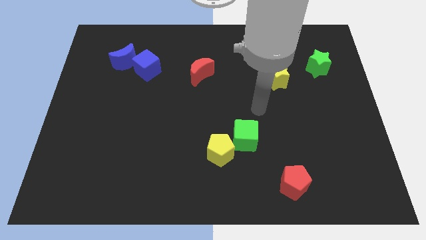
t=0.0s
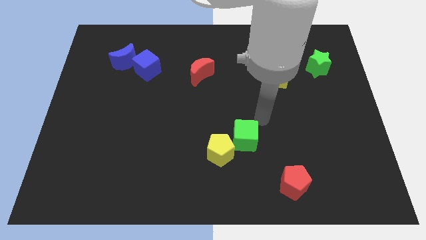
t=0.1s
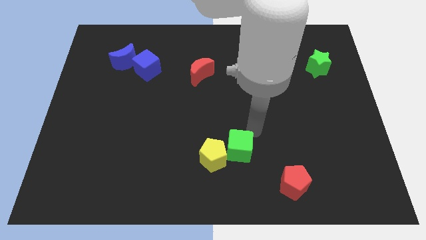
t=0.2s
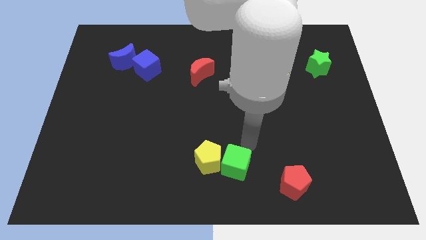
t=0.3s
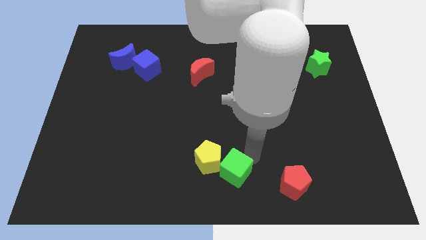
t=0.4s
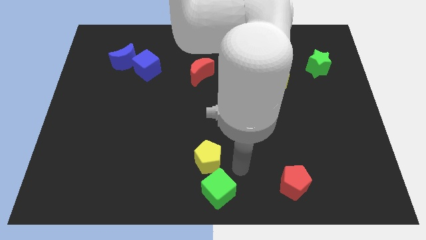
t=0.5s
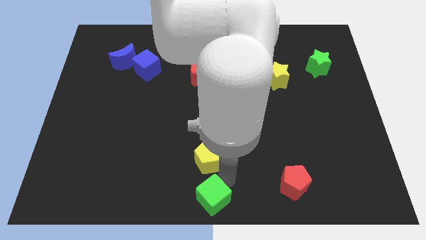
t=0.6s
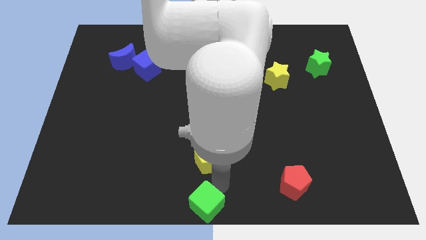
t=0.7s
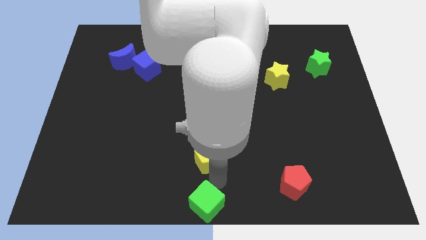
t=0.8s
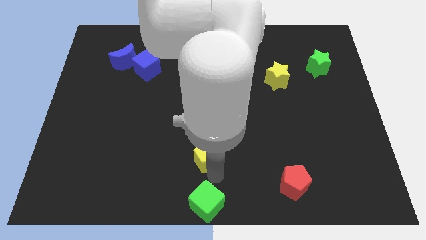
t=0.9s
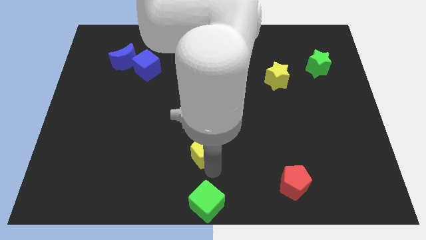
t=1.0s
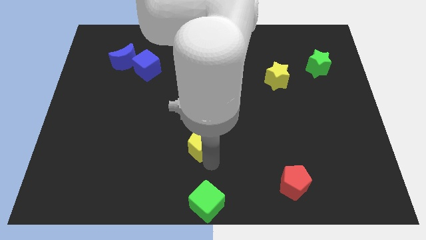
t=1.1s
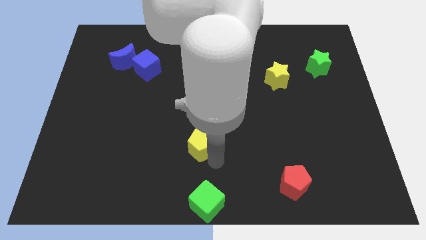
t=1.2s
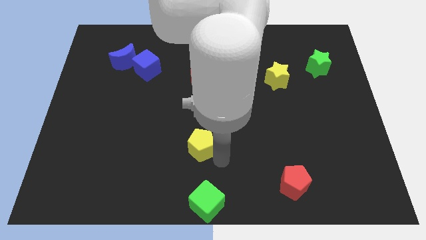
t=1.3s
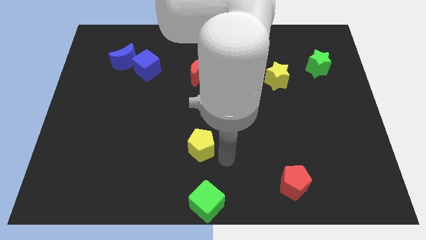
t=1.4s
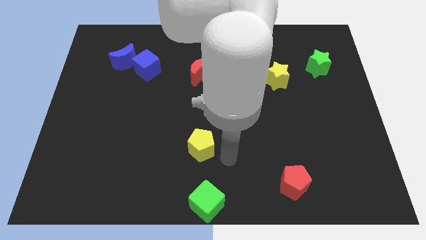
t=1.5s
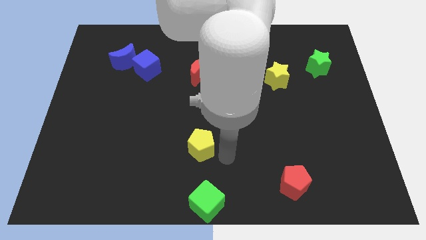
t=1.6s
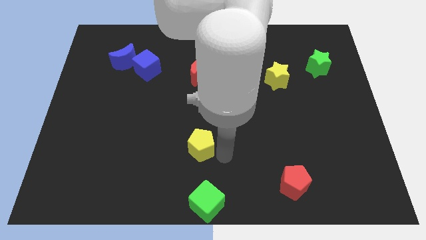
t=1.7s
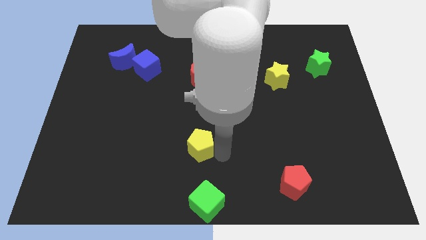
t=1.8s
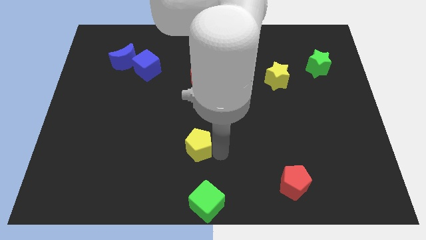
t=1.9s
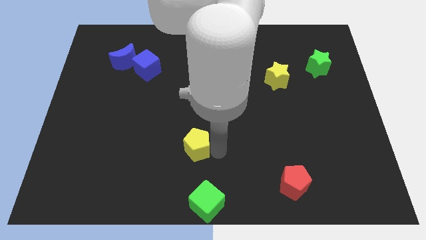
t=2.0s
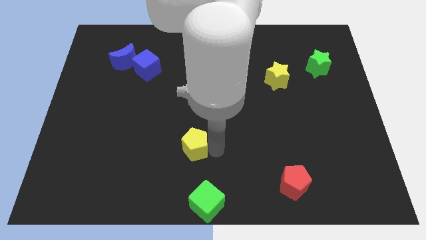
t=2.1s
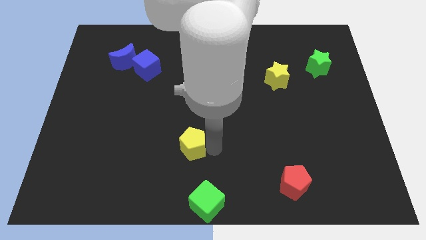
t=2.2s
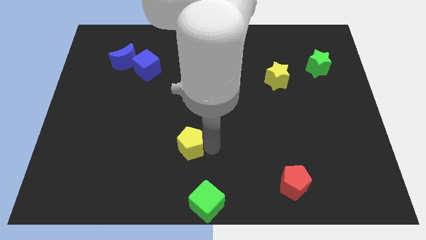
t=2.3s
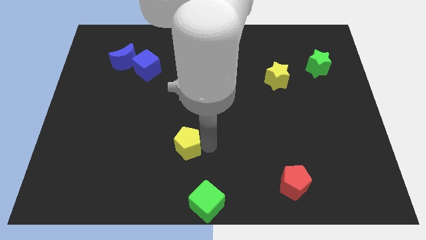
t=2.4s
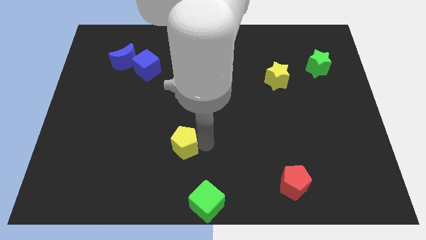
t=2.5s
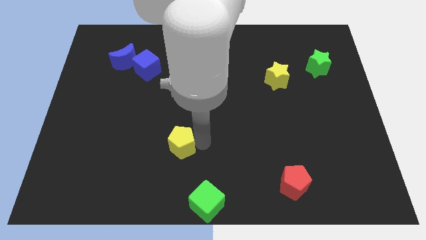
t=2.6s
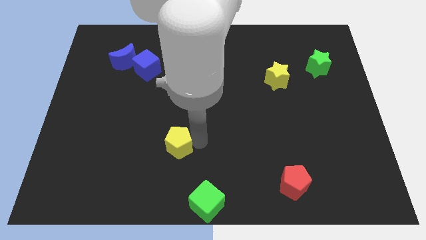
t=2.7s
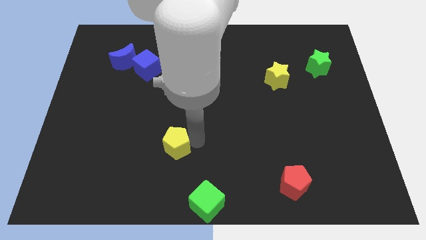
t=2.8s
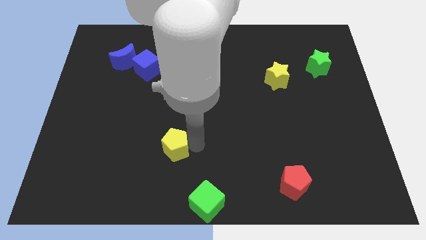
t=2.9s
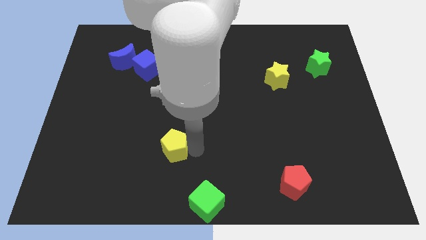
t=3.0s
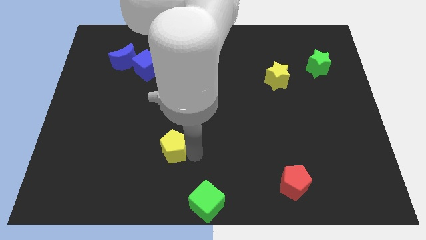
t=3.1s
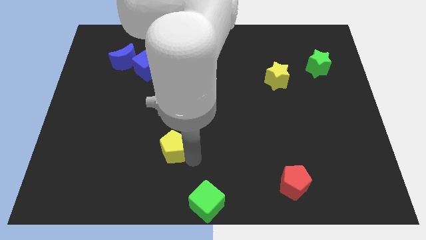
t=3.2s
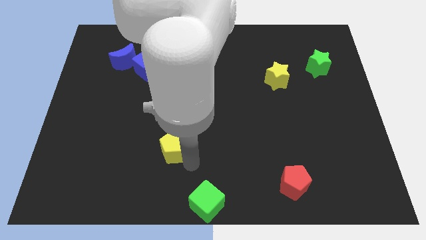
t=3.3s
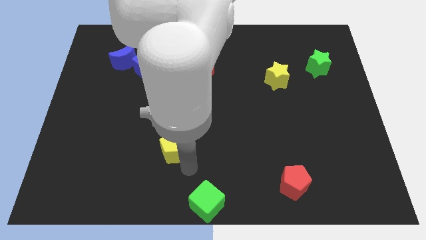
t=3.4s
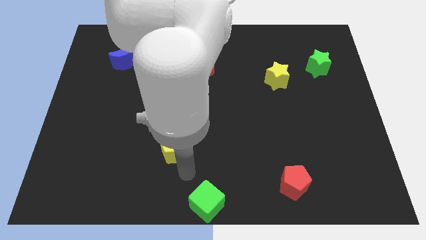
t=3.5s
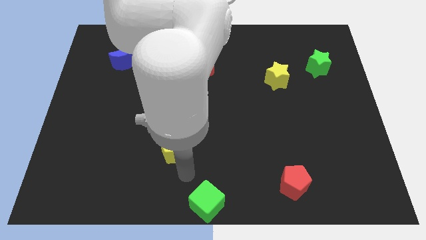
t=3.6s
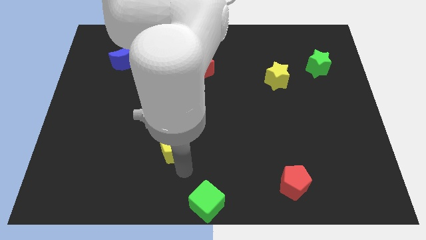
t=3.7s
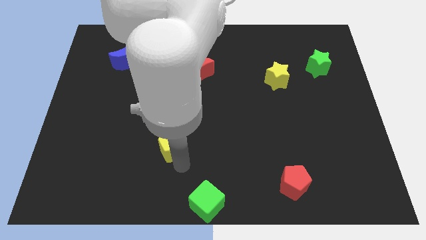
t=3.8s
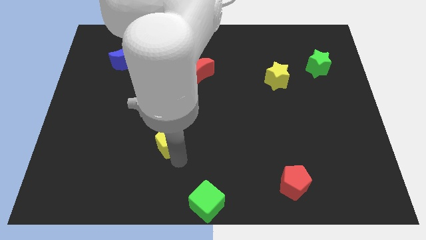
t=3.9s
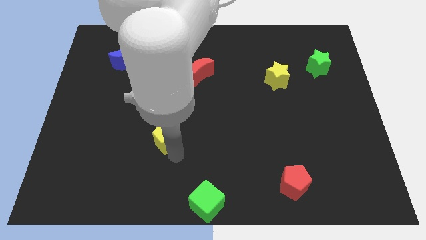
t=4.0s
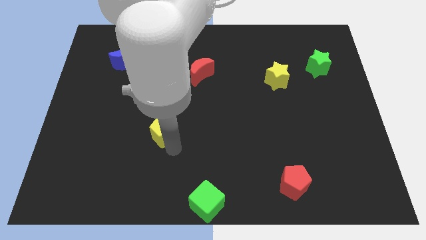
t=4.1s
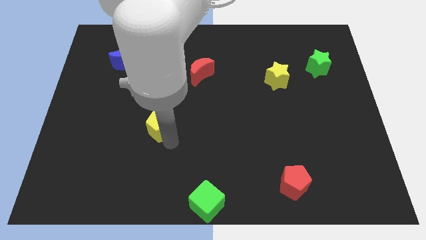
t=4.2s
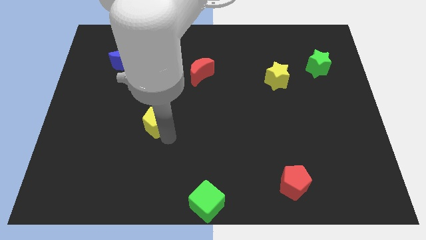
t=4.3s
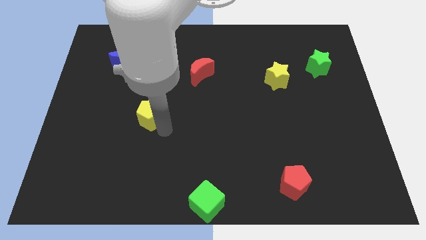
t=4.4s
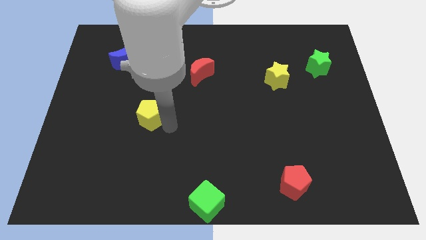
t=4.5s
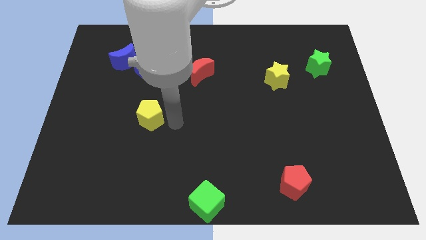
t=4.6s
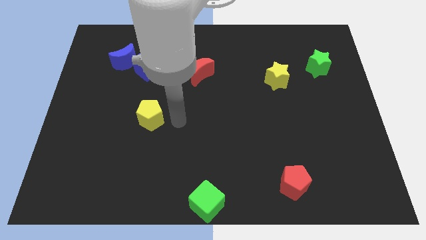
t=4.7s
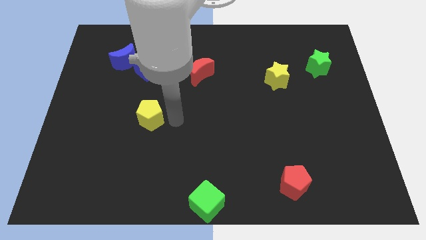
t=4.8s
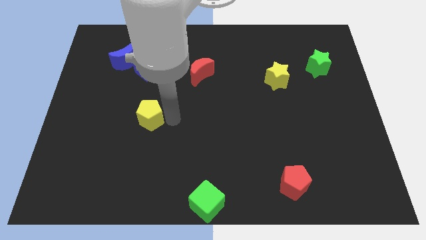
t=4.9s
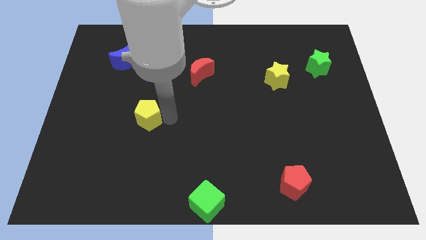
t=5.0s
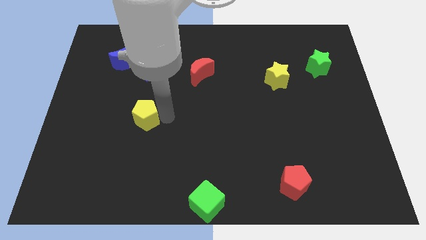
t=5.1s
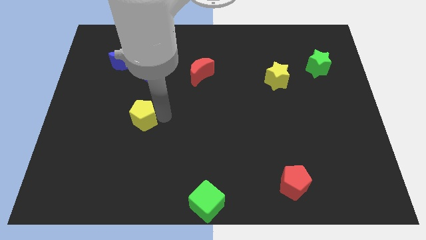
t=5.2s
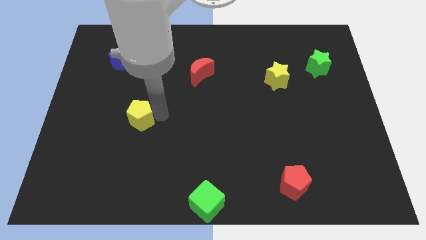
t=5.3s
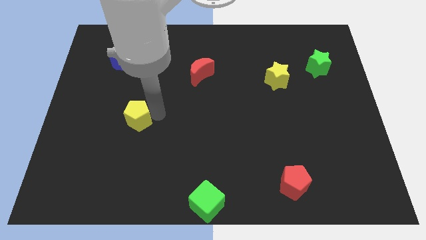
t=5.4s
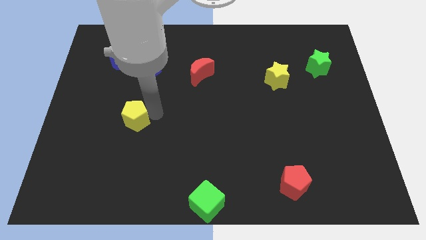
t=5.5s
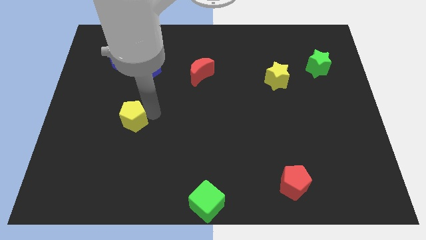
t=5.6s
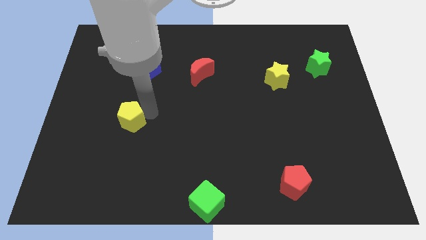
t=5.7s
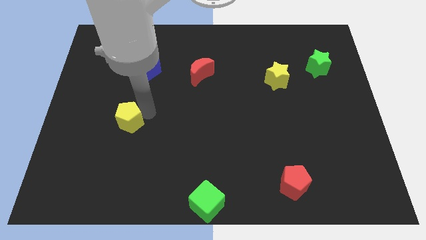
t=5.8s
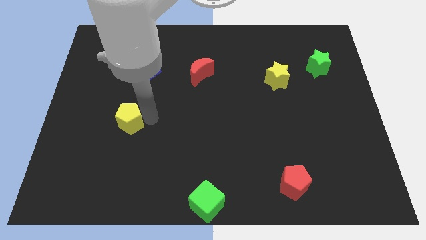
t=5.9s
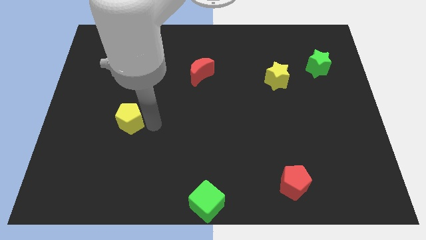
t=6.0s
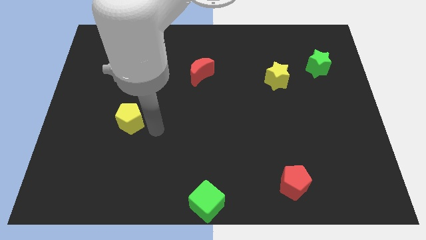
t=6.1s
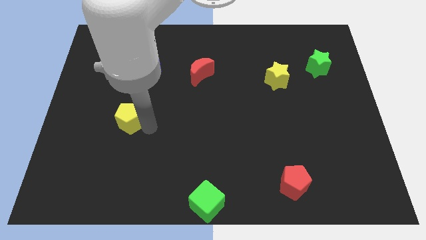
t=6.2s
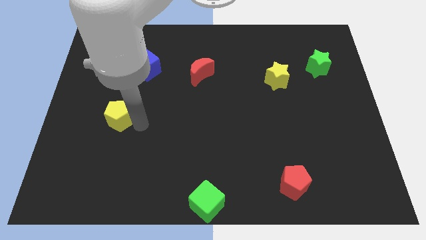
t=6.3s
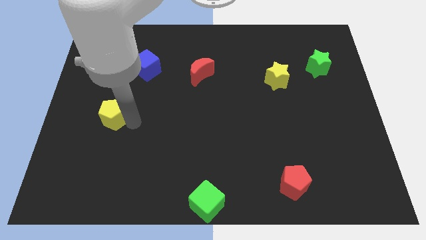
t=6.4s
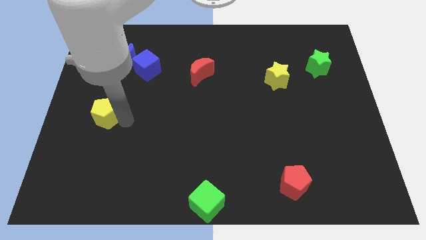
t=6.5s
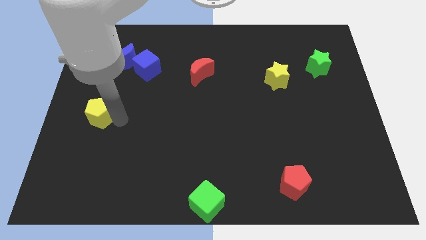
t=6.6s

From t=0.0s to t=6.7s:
put the yellow pentagon to the left side
